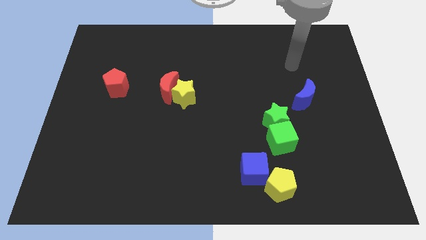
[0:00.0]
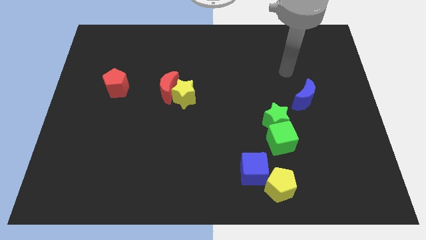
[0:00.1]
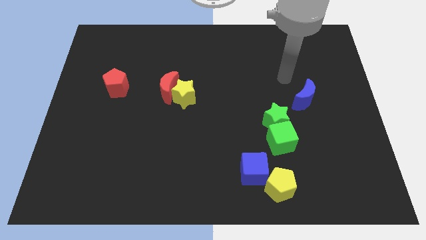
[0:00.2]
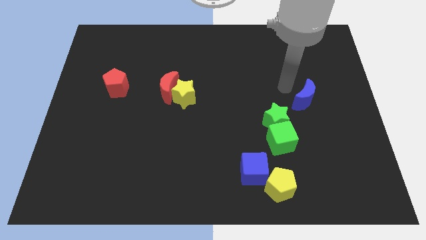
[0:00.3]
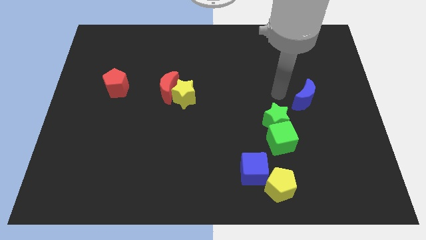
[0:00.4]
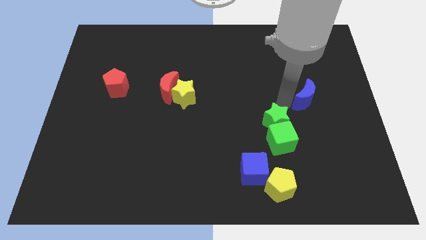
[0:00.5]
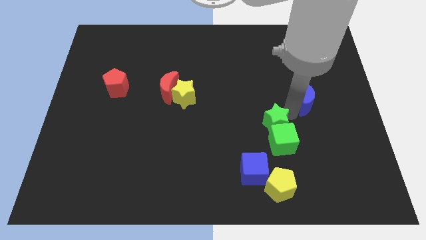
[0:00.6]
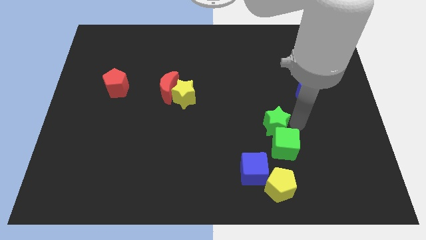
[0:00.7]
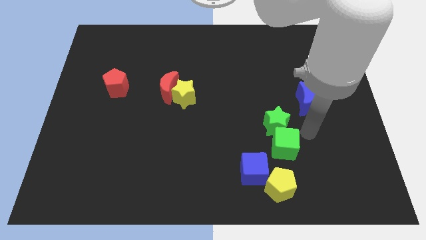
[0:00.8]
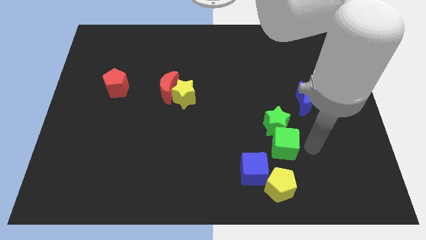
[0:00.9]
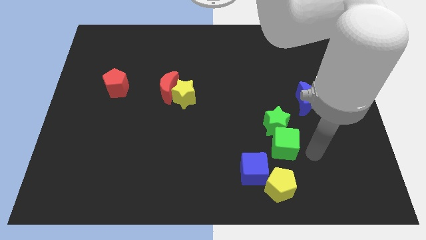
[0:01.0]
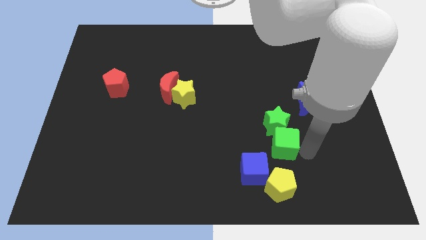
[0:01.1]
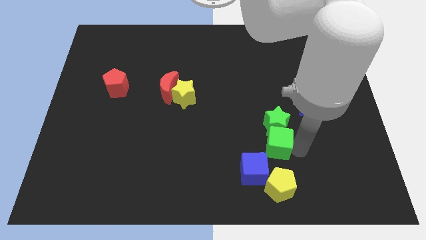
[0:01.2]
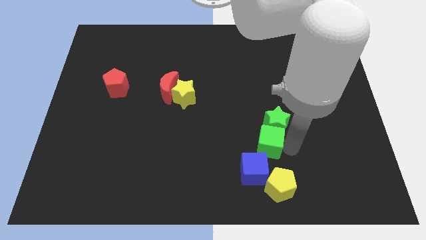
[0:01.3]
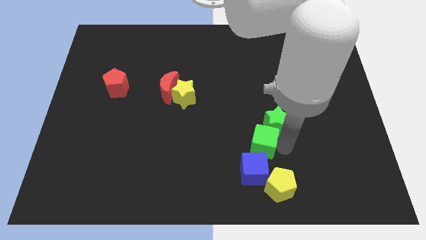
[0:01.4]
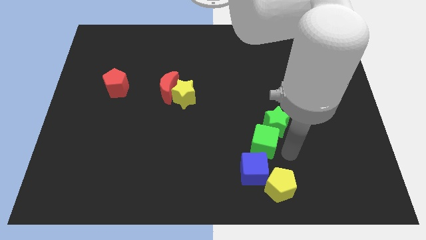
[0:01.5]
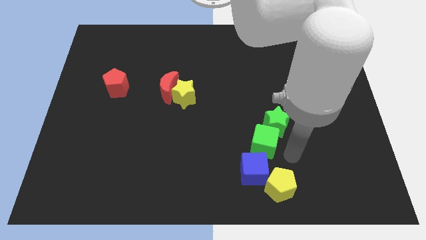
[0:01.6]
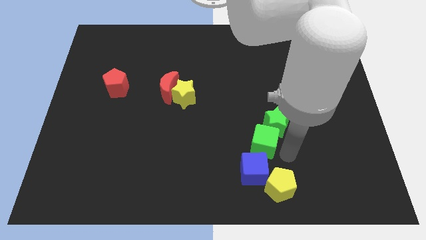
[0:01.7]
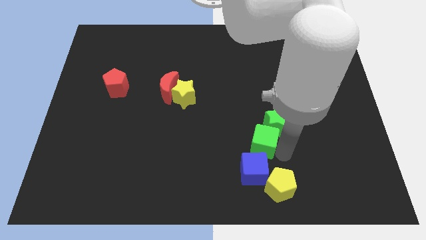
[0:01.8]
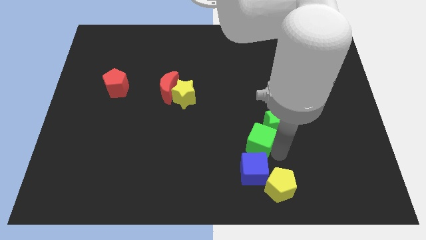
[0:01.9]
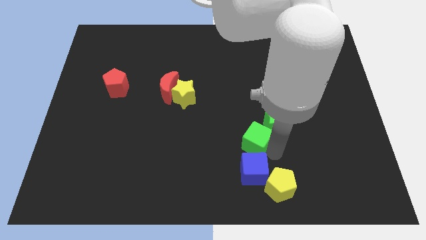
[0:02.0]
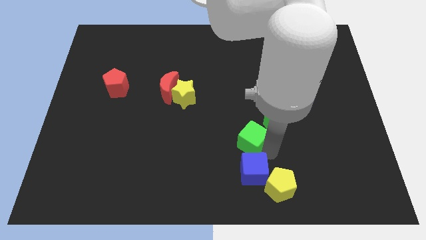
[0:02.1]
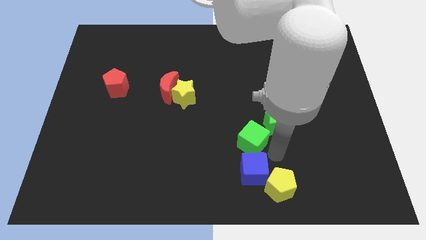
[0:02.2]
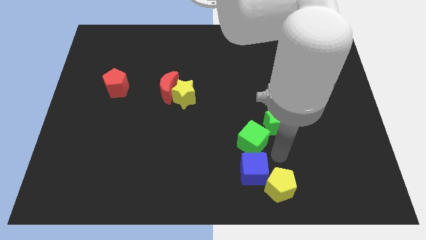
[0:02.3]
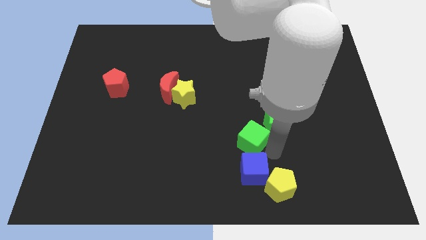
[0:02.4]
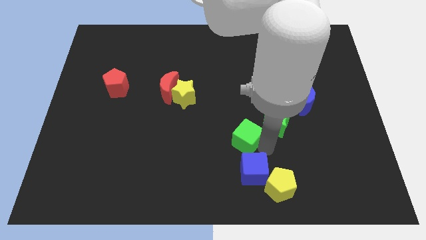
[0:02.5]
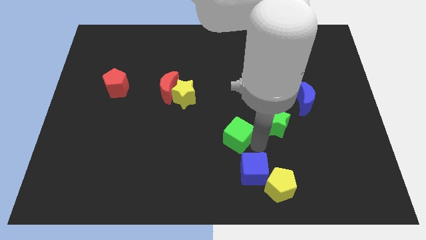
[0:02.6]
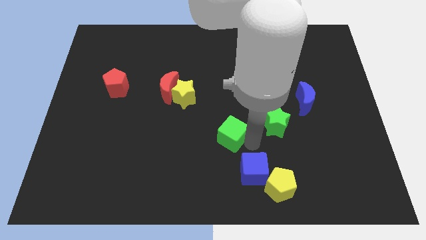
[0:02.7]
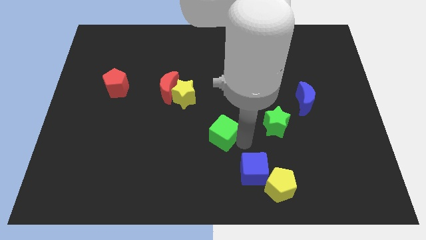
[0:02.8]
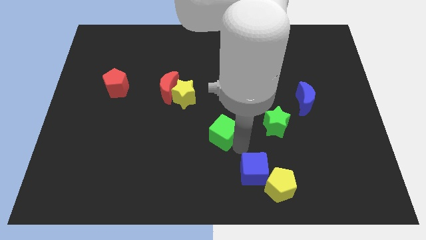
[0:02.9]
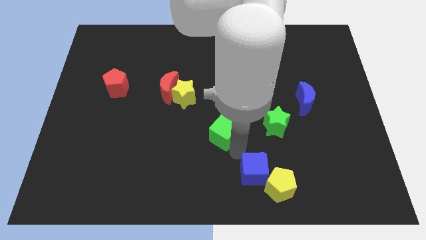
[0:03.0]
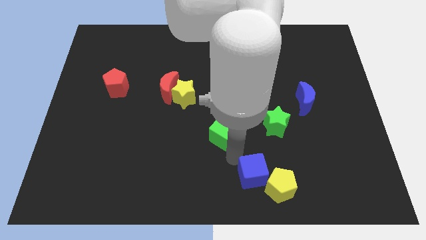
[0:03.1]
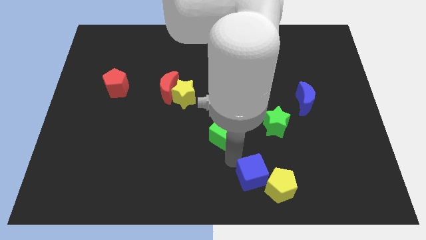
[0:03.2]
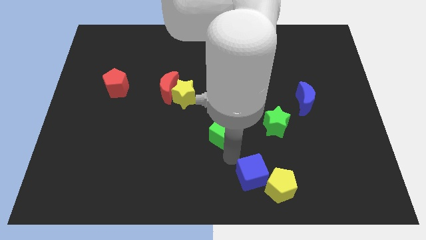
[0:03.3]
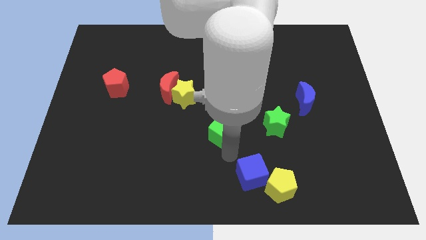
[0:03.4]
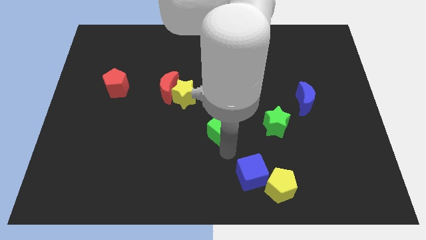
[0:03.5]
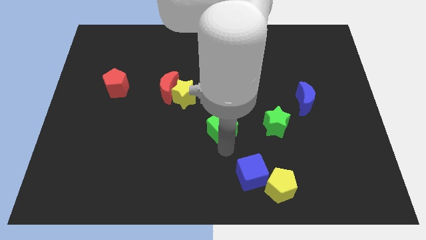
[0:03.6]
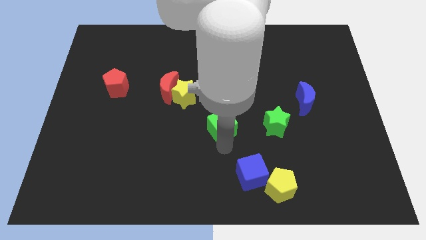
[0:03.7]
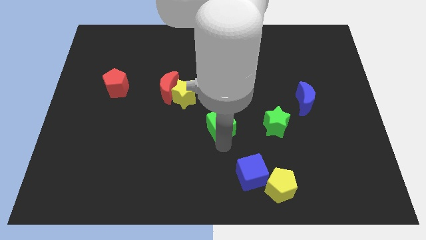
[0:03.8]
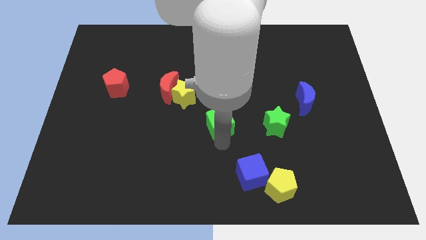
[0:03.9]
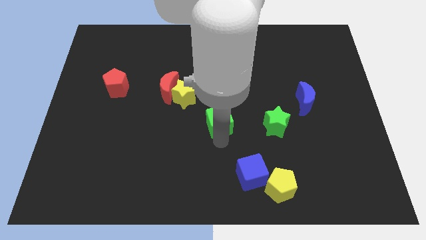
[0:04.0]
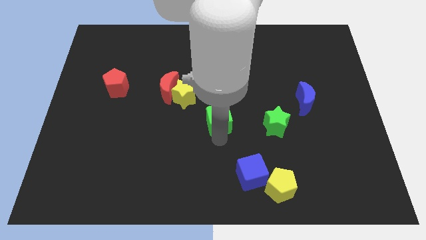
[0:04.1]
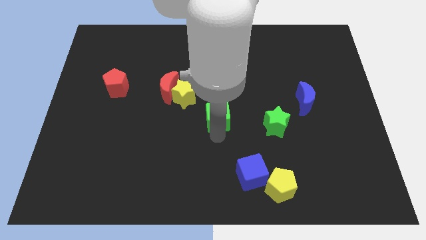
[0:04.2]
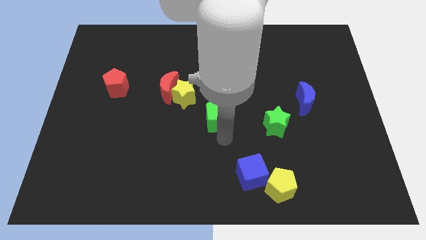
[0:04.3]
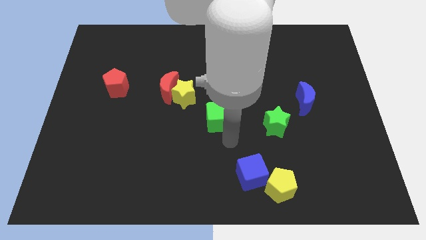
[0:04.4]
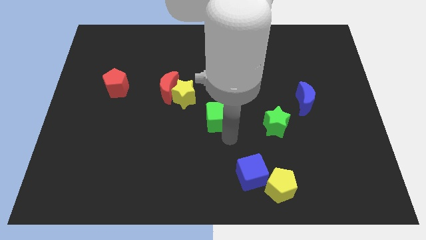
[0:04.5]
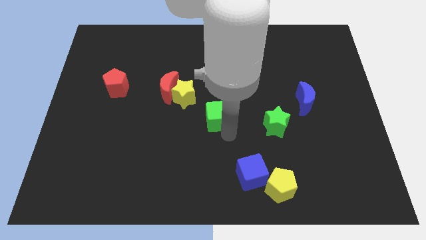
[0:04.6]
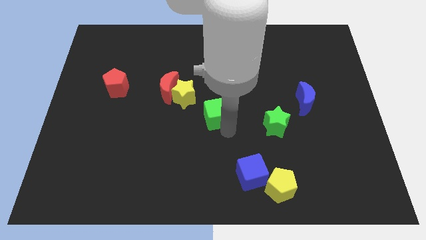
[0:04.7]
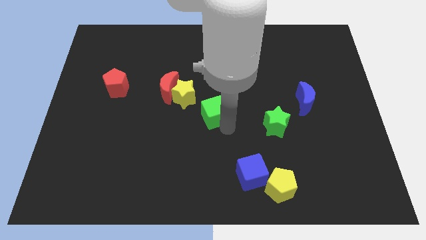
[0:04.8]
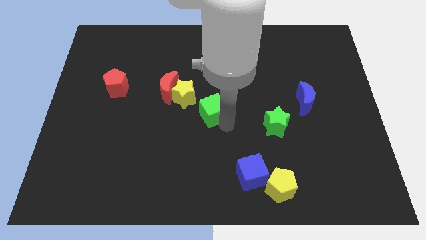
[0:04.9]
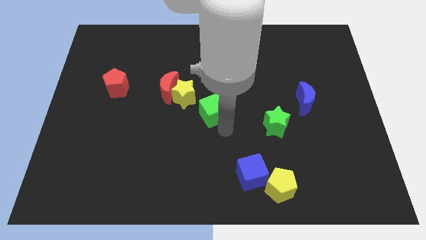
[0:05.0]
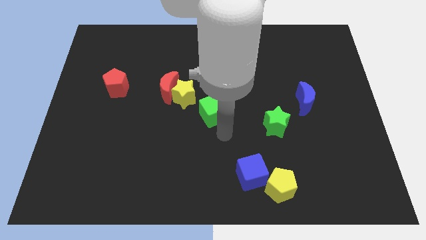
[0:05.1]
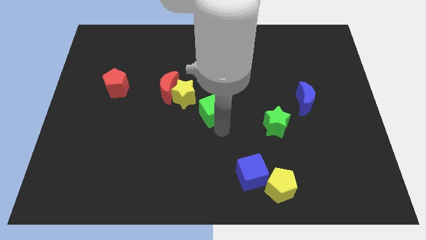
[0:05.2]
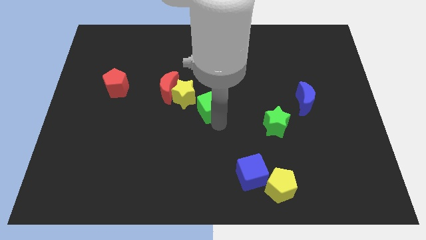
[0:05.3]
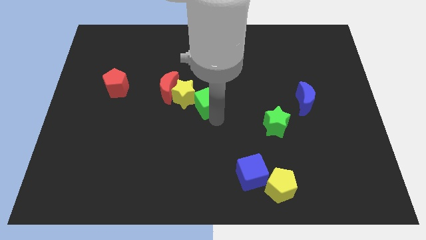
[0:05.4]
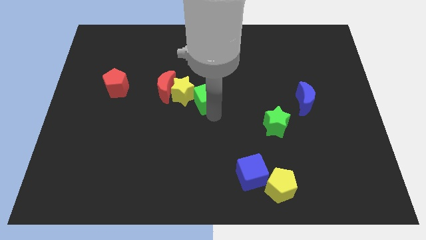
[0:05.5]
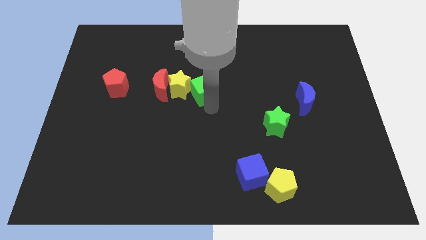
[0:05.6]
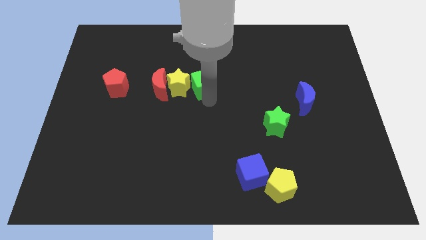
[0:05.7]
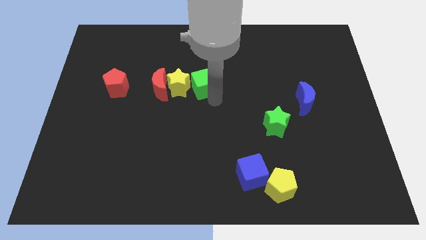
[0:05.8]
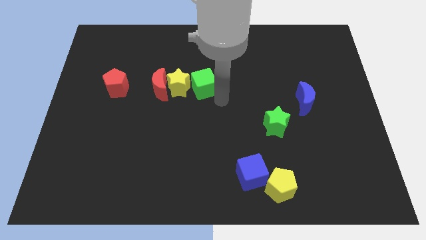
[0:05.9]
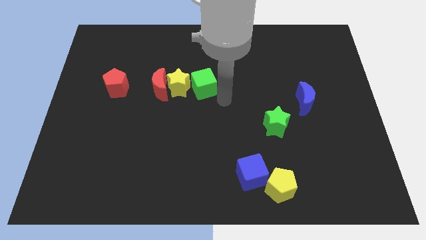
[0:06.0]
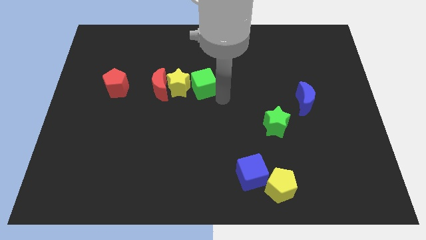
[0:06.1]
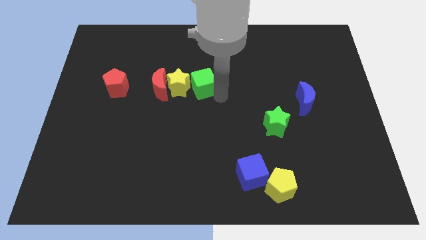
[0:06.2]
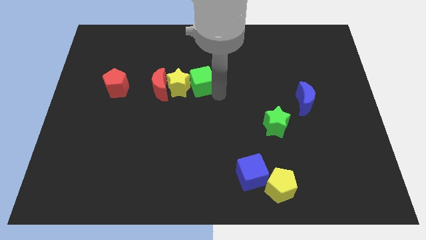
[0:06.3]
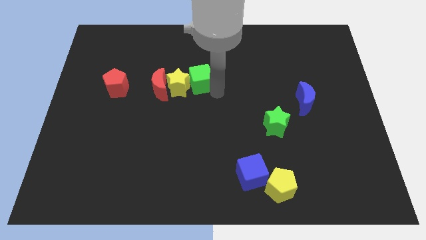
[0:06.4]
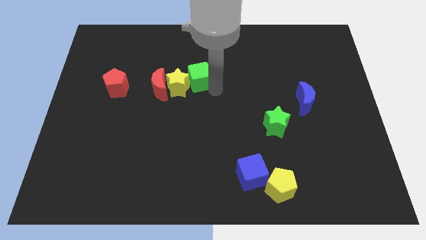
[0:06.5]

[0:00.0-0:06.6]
move the green cube to the top right side of the red moon
